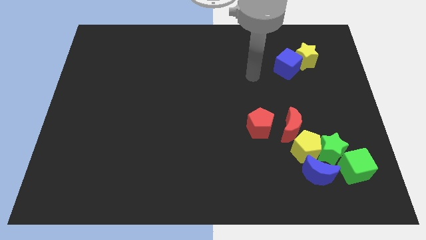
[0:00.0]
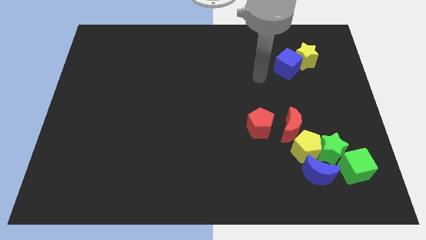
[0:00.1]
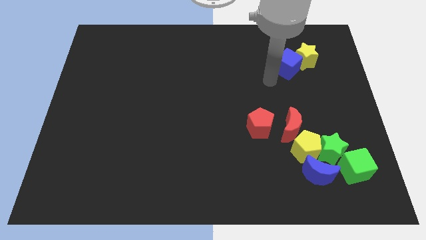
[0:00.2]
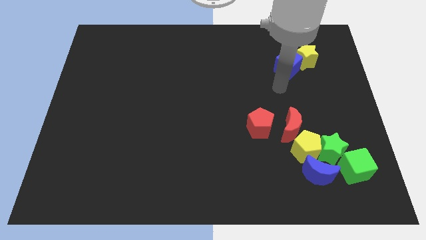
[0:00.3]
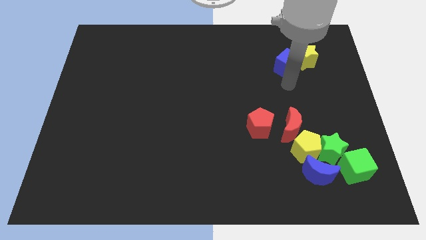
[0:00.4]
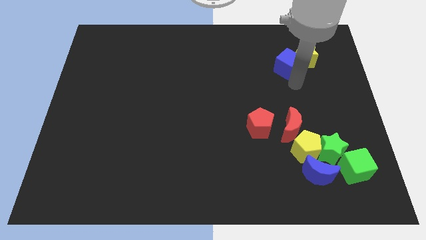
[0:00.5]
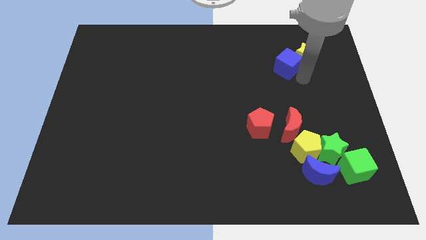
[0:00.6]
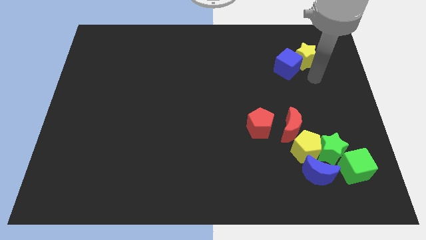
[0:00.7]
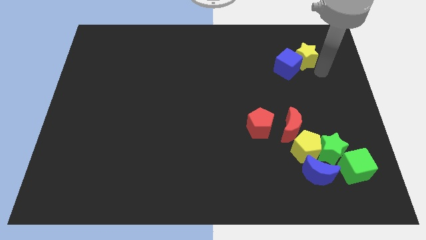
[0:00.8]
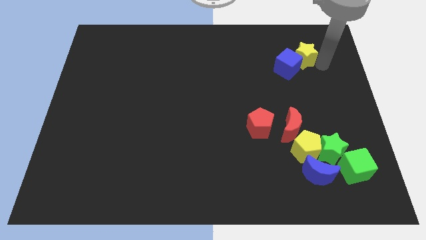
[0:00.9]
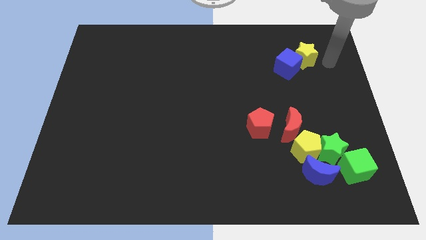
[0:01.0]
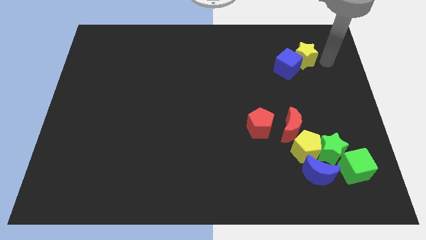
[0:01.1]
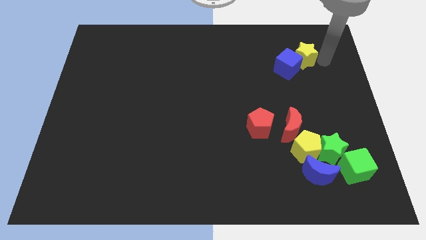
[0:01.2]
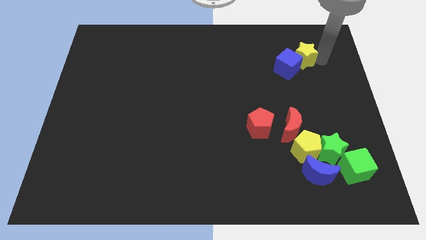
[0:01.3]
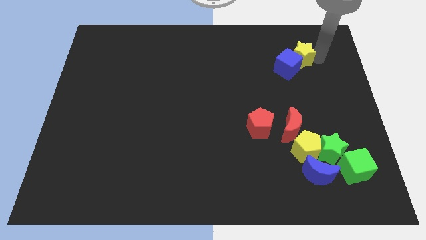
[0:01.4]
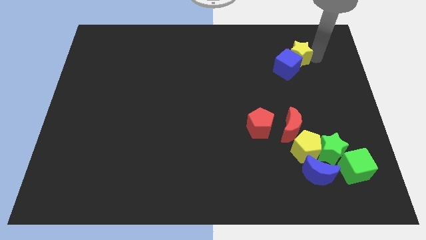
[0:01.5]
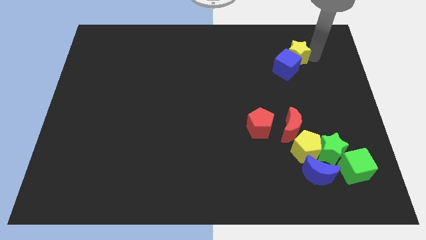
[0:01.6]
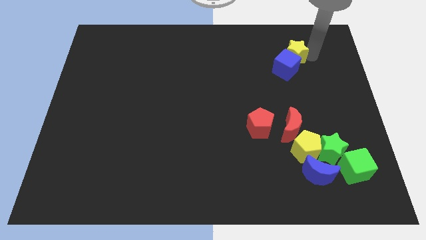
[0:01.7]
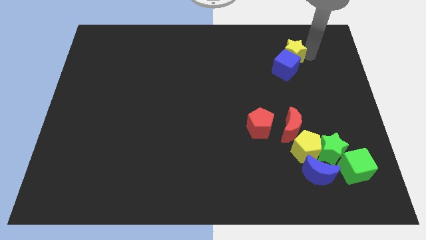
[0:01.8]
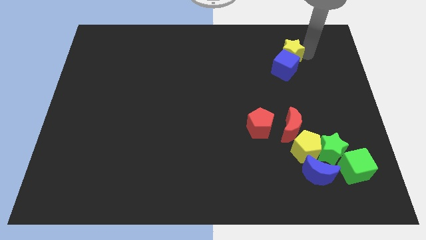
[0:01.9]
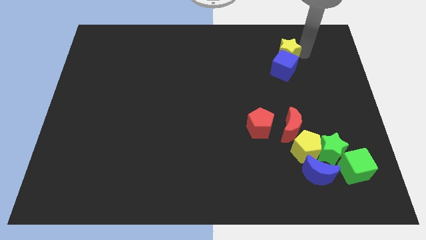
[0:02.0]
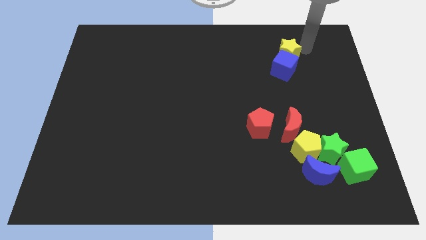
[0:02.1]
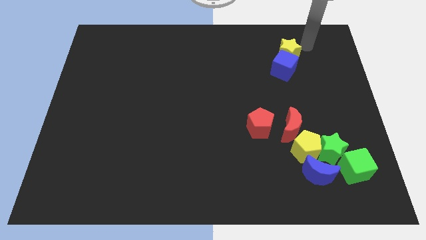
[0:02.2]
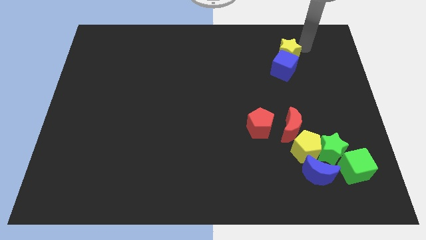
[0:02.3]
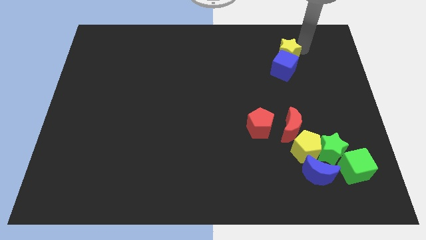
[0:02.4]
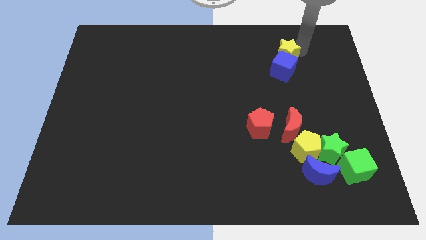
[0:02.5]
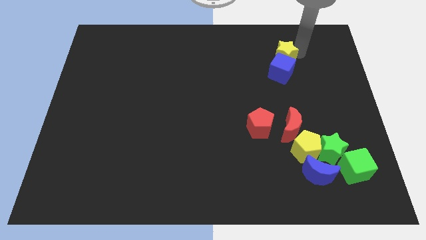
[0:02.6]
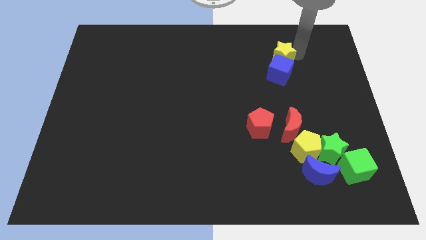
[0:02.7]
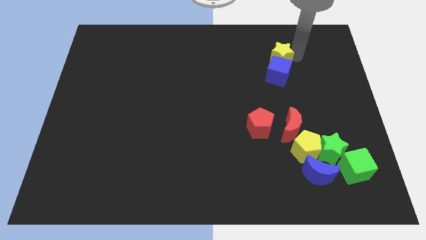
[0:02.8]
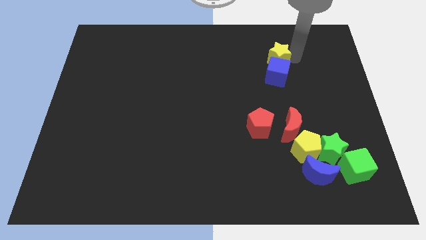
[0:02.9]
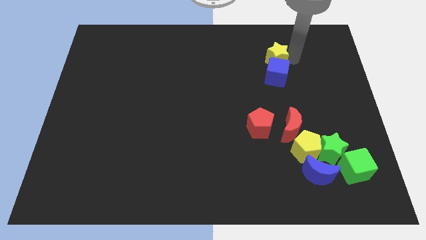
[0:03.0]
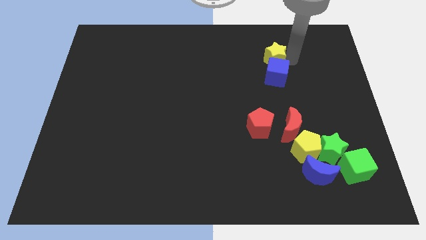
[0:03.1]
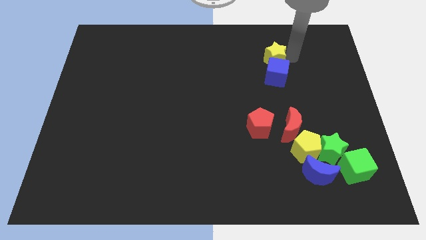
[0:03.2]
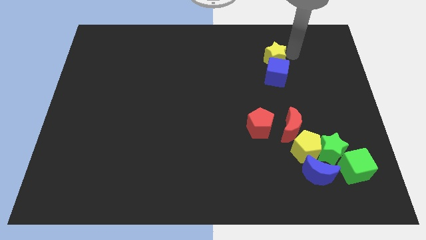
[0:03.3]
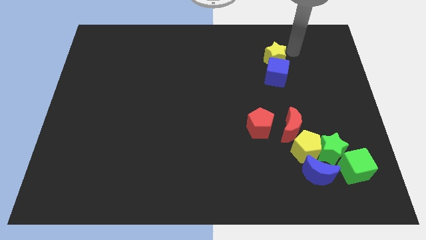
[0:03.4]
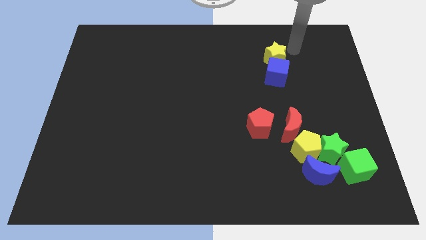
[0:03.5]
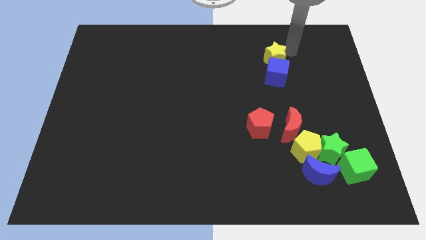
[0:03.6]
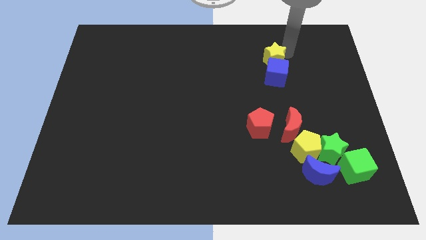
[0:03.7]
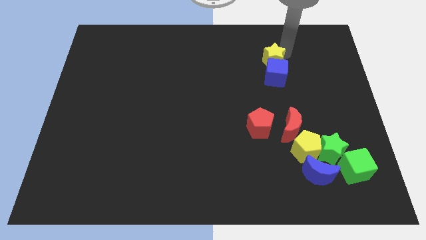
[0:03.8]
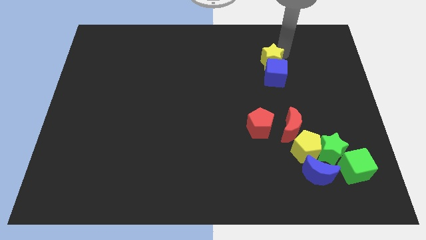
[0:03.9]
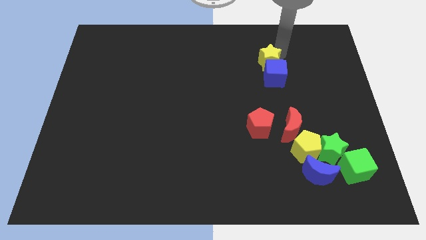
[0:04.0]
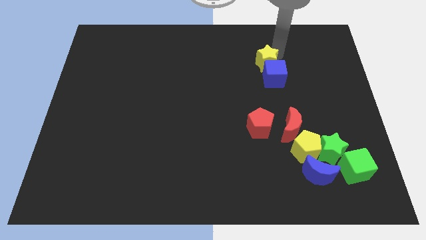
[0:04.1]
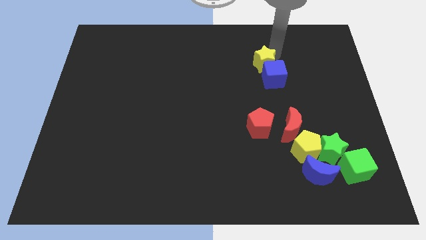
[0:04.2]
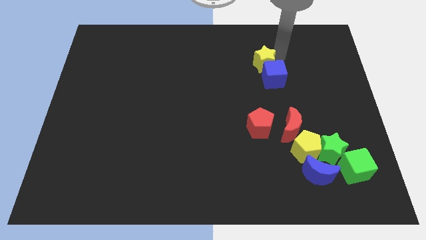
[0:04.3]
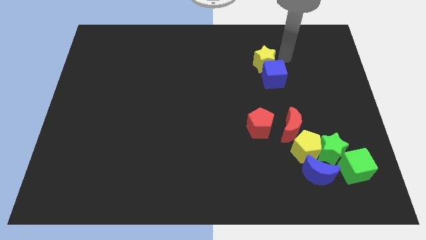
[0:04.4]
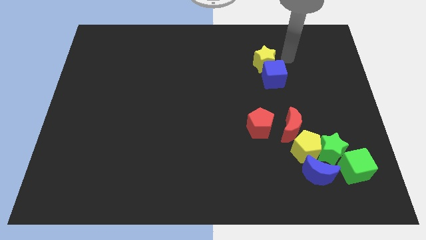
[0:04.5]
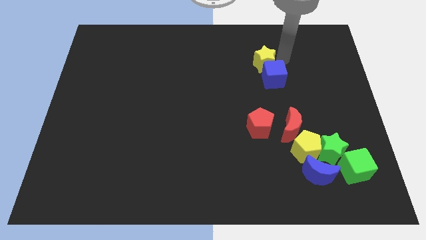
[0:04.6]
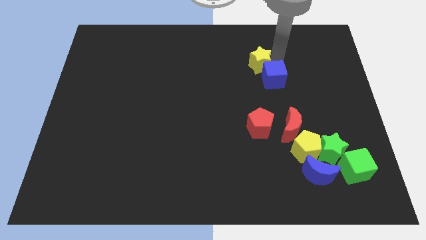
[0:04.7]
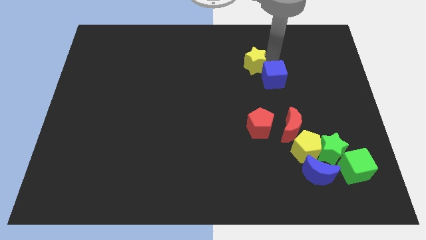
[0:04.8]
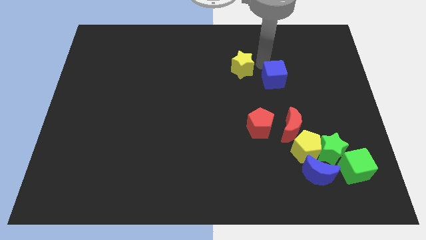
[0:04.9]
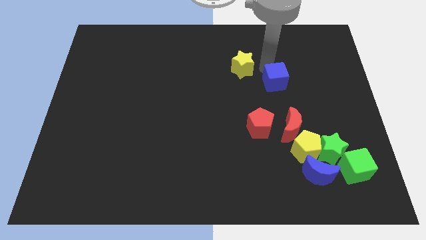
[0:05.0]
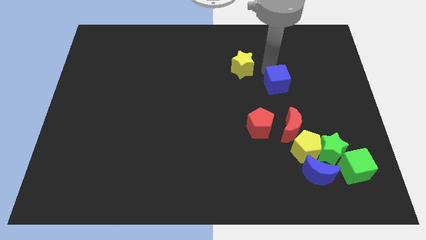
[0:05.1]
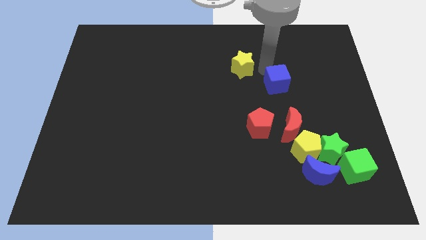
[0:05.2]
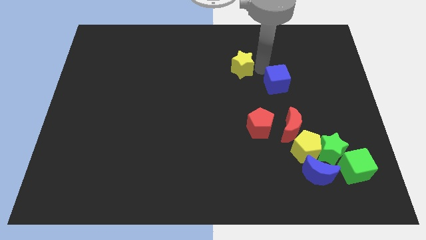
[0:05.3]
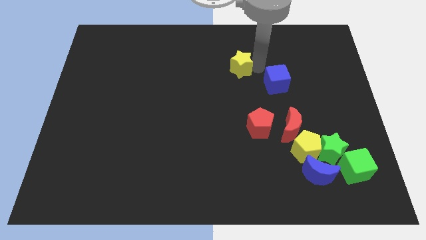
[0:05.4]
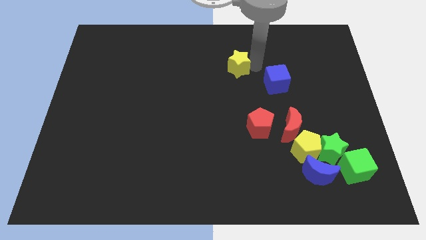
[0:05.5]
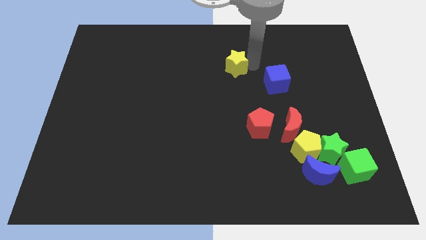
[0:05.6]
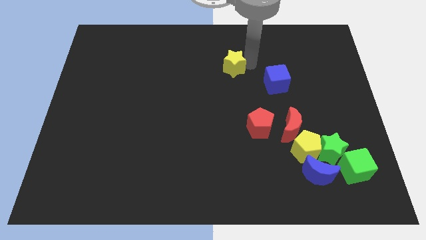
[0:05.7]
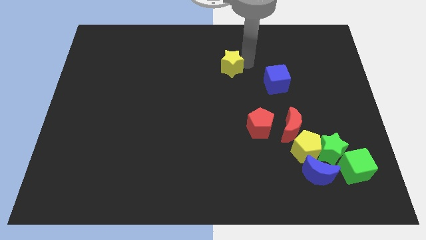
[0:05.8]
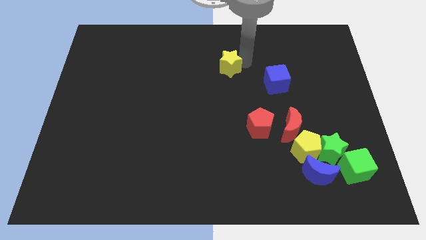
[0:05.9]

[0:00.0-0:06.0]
move the yellow star to the left

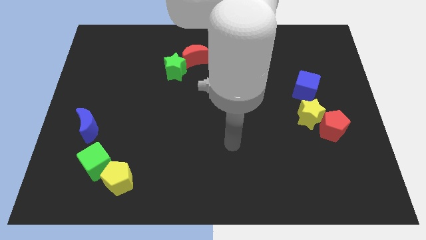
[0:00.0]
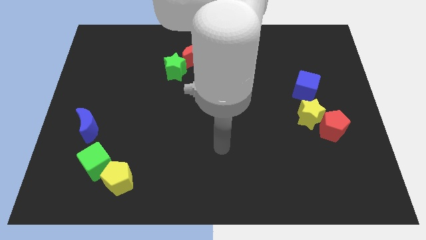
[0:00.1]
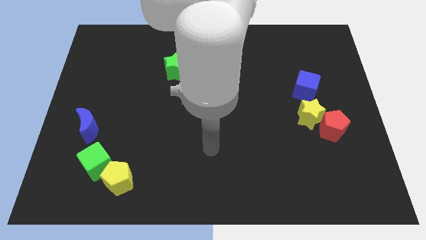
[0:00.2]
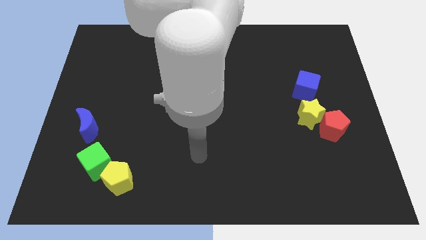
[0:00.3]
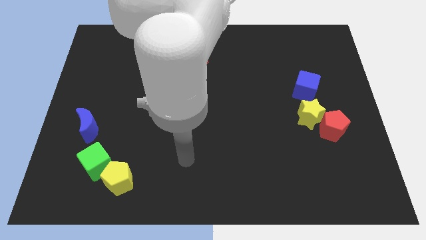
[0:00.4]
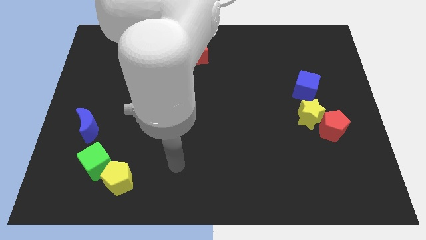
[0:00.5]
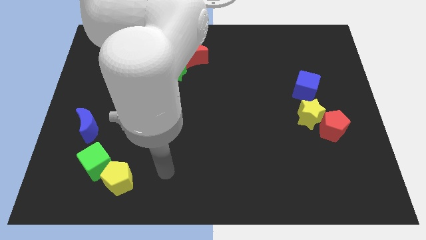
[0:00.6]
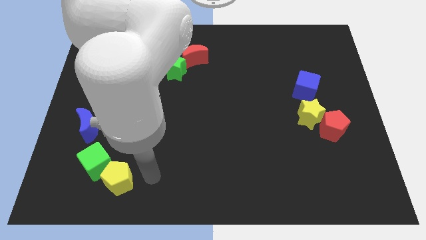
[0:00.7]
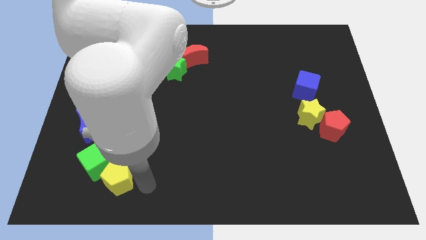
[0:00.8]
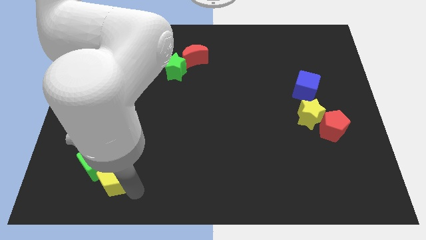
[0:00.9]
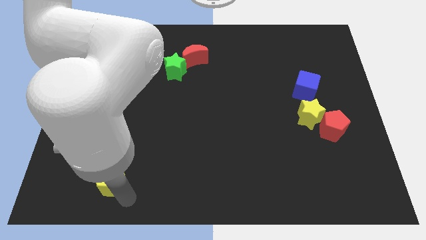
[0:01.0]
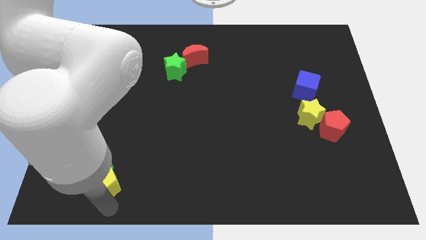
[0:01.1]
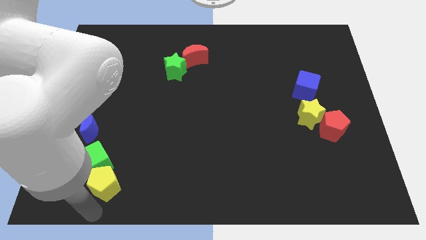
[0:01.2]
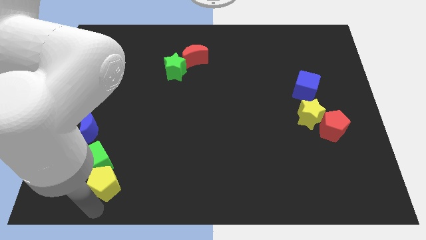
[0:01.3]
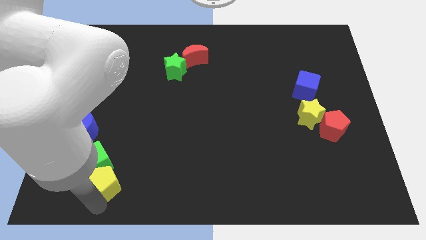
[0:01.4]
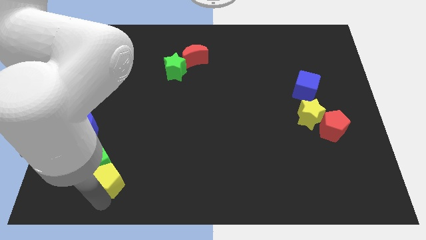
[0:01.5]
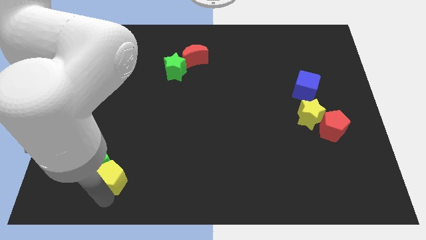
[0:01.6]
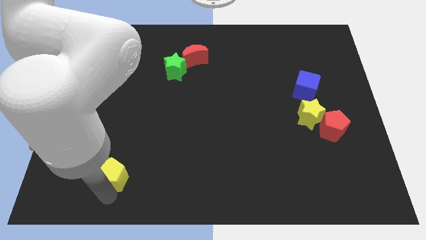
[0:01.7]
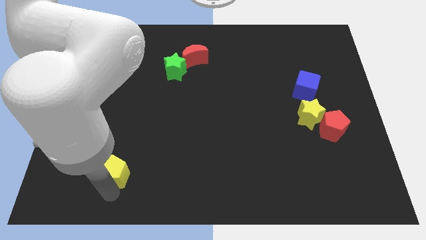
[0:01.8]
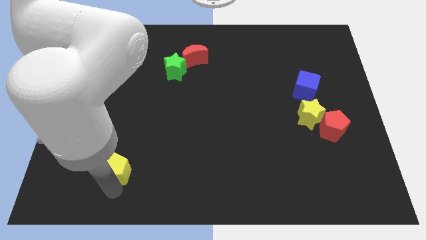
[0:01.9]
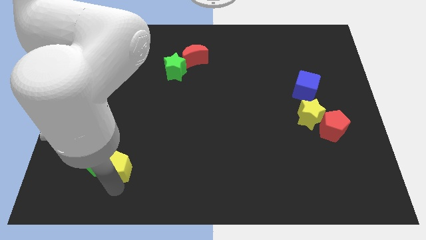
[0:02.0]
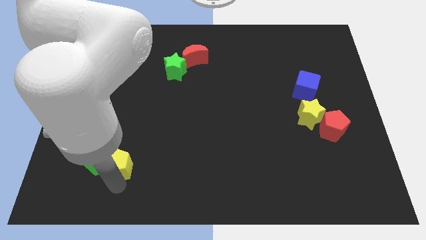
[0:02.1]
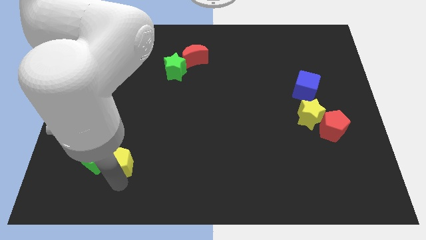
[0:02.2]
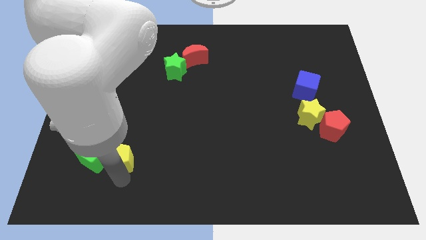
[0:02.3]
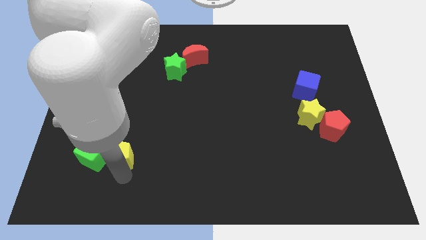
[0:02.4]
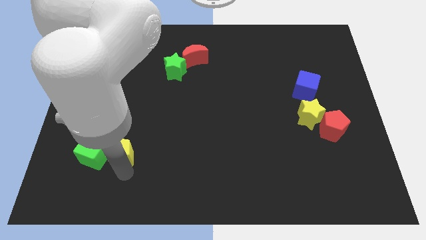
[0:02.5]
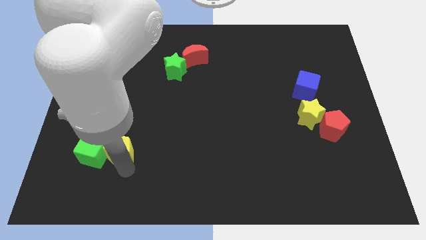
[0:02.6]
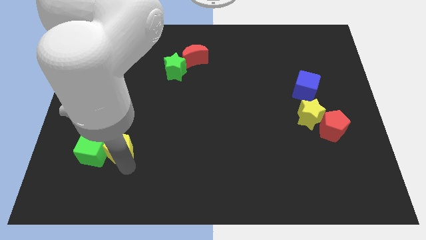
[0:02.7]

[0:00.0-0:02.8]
slightly push the yellow pentagon upwards
